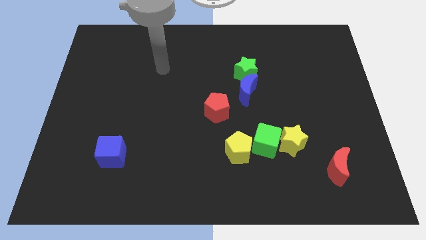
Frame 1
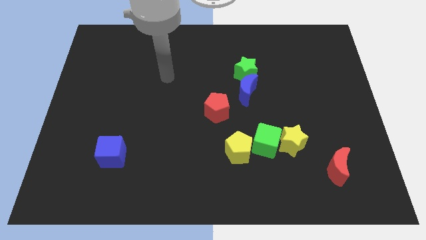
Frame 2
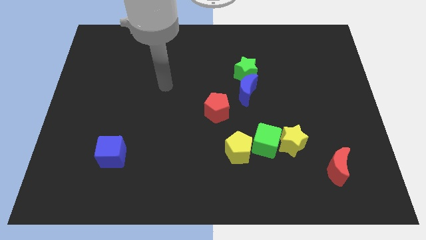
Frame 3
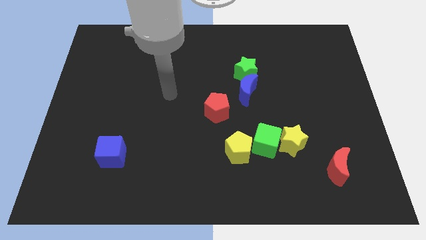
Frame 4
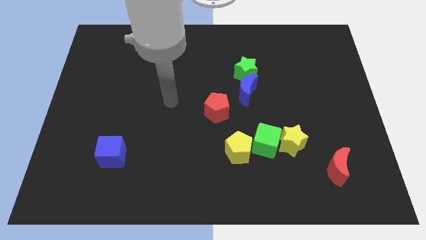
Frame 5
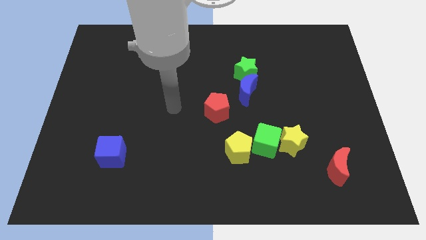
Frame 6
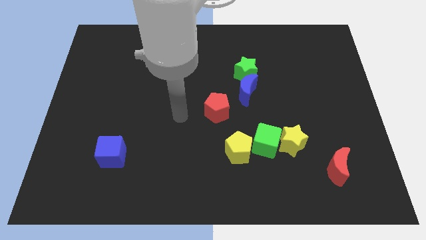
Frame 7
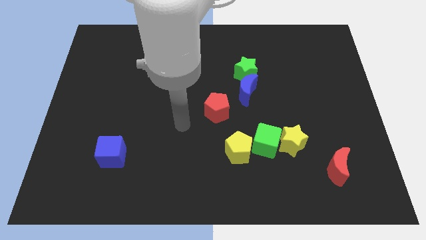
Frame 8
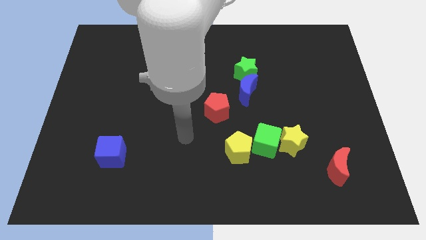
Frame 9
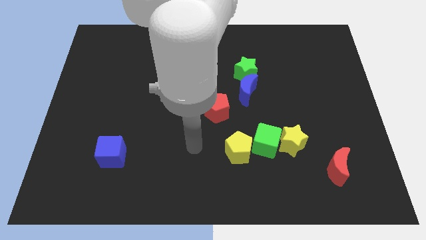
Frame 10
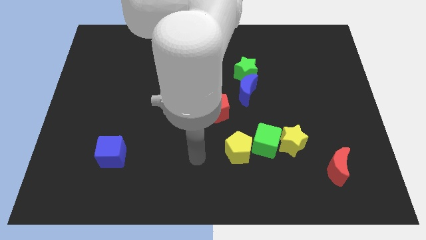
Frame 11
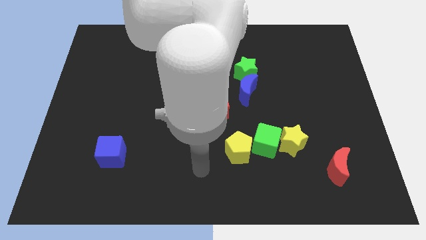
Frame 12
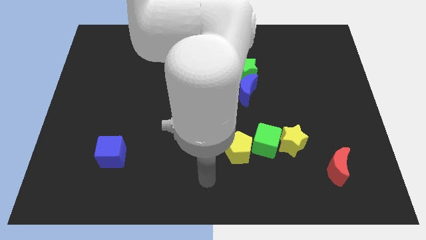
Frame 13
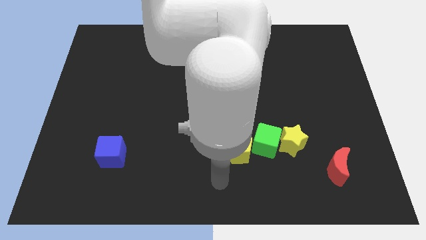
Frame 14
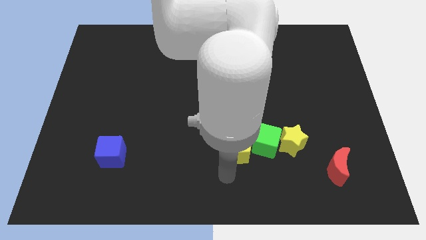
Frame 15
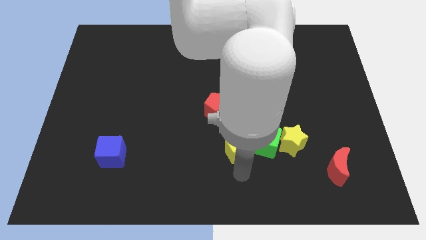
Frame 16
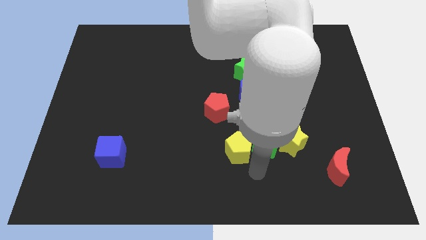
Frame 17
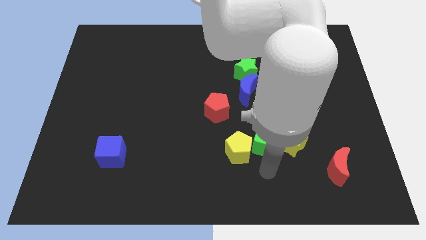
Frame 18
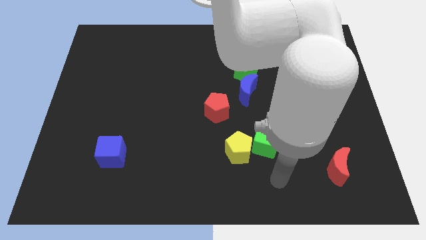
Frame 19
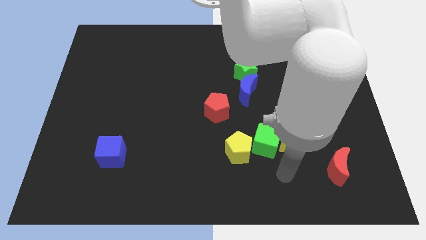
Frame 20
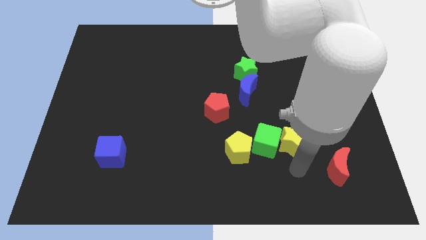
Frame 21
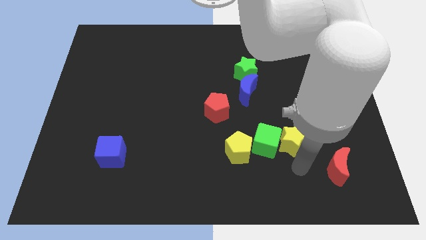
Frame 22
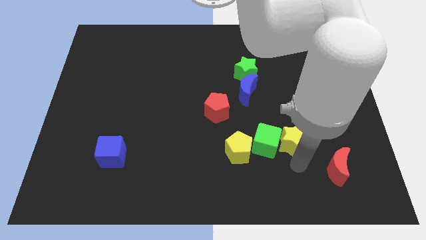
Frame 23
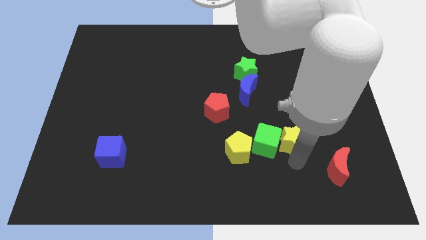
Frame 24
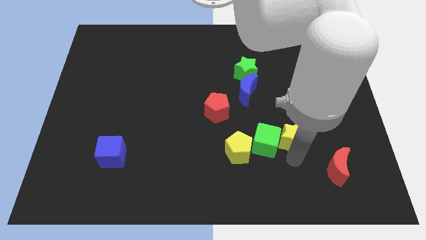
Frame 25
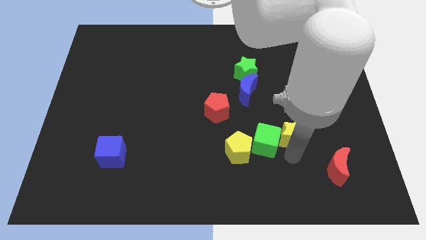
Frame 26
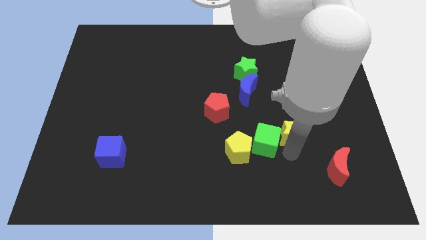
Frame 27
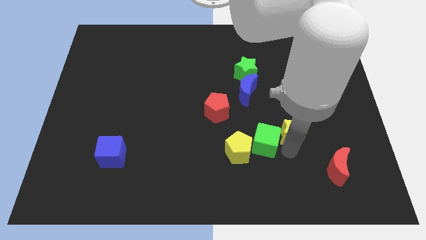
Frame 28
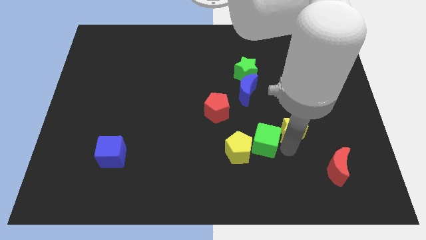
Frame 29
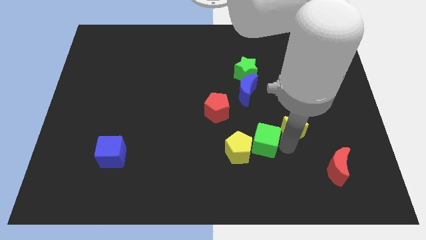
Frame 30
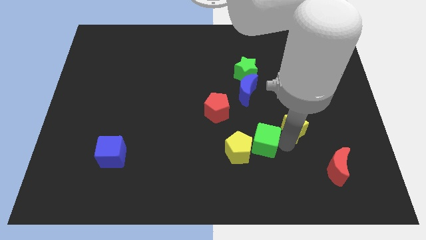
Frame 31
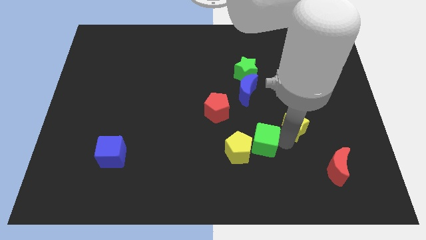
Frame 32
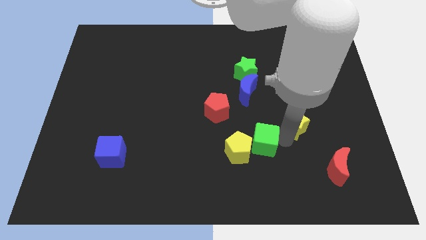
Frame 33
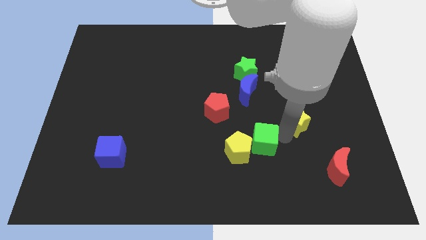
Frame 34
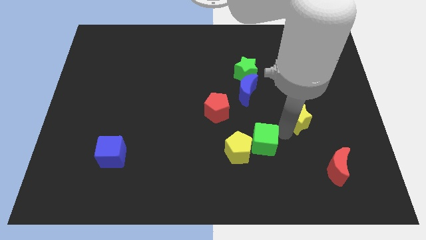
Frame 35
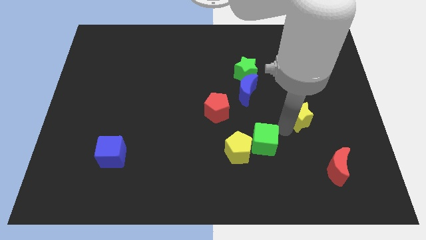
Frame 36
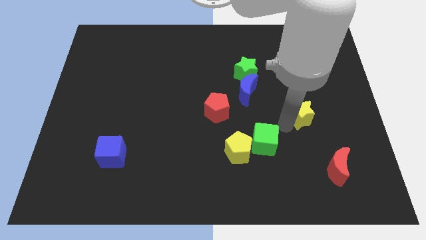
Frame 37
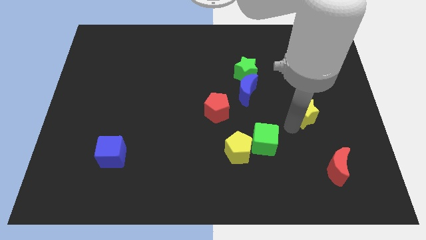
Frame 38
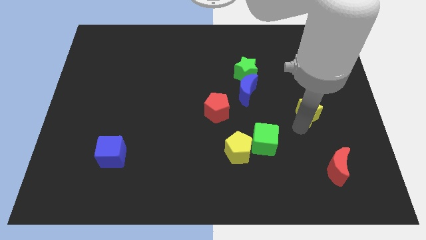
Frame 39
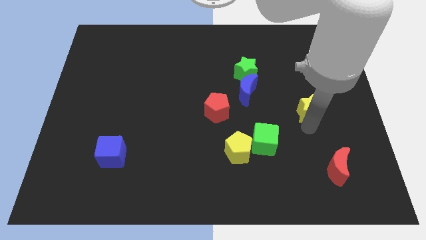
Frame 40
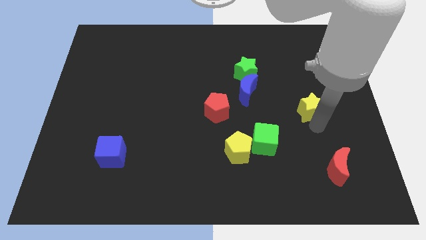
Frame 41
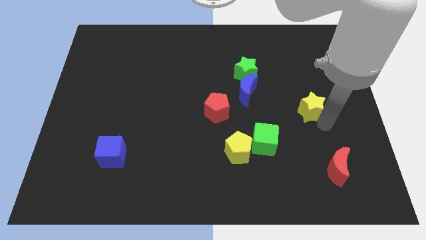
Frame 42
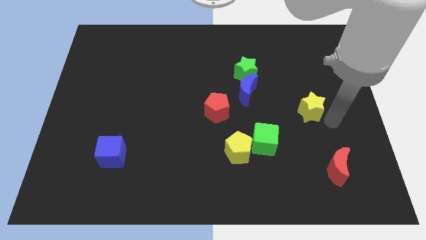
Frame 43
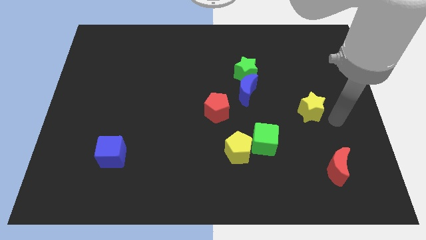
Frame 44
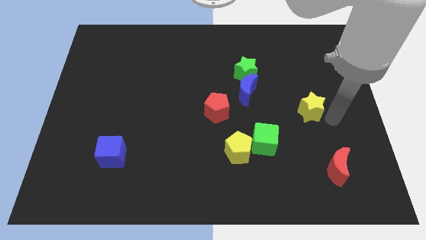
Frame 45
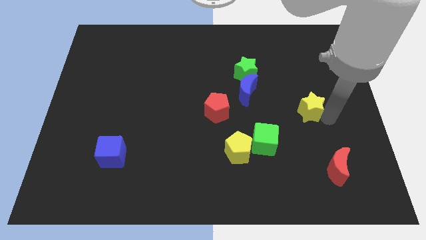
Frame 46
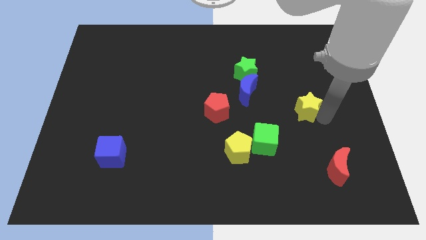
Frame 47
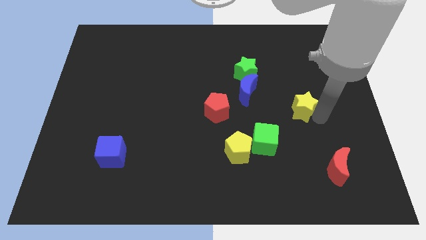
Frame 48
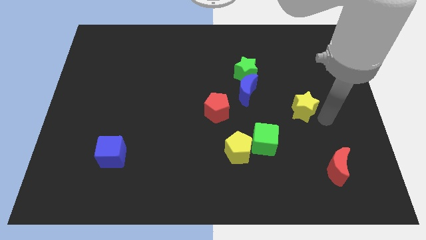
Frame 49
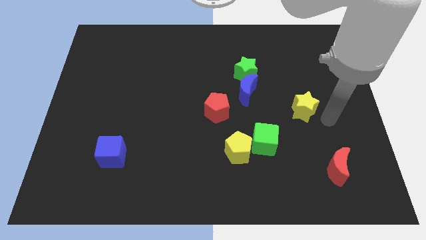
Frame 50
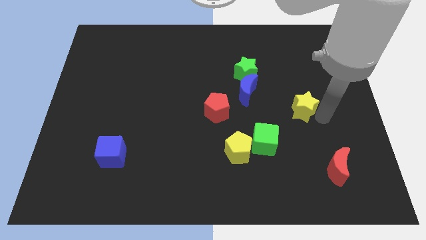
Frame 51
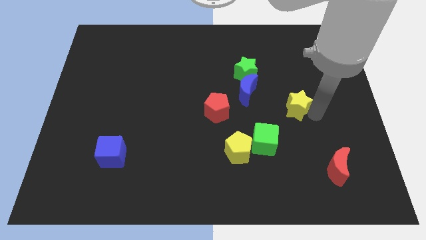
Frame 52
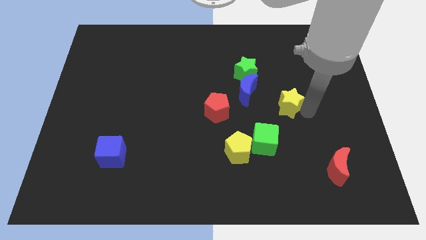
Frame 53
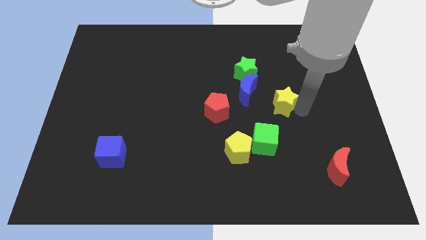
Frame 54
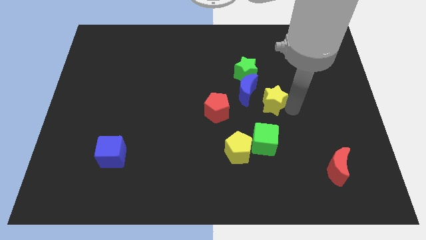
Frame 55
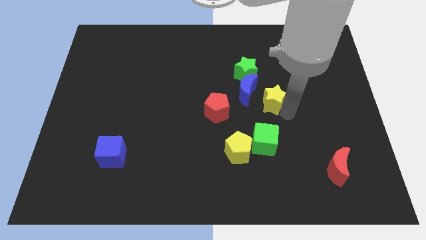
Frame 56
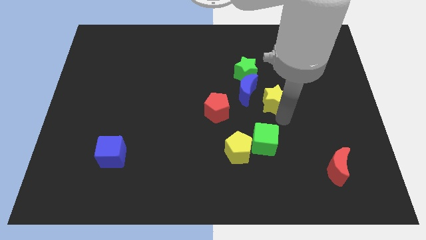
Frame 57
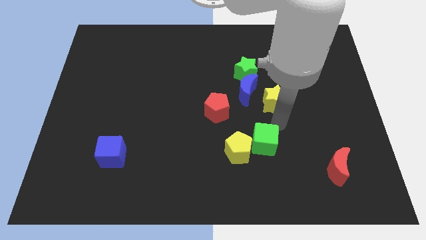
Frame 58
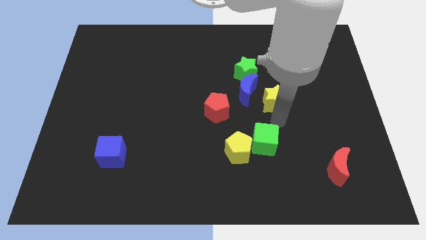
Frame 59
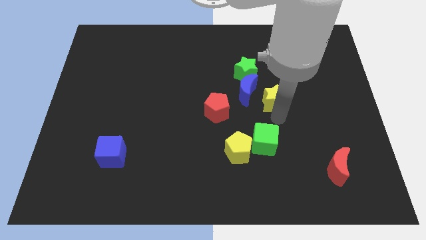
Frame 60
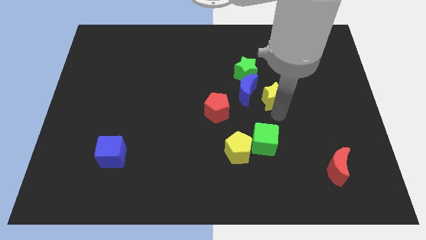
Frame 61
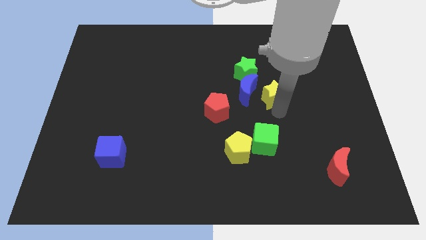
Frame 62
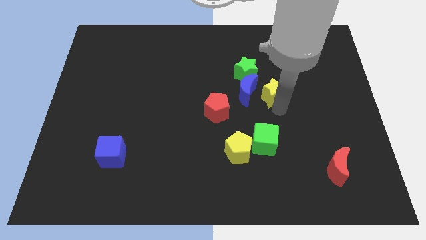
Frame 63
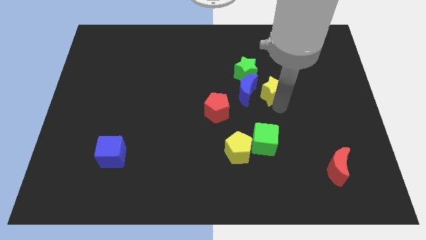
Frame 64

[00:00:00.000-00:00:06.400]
push the yellow star to the top right side of the blue moon
